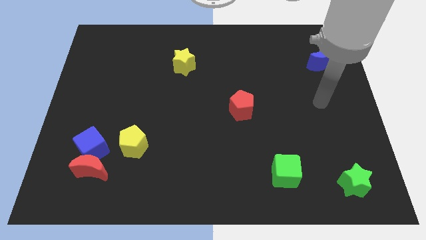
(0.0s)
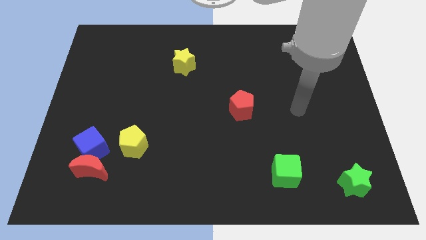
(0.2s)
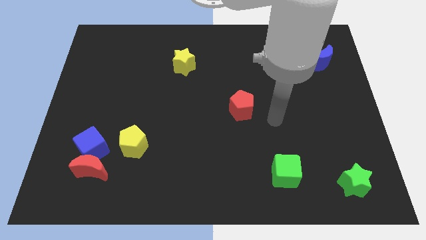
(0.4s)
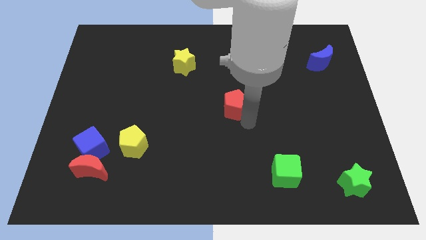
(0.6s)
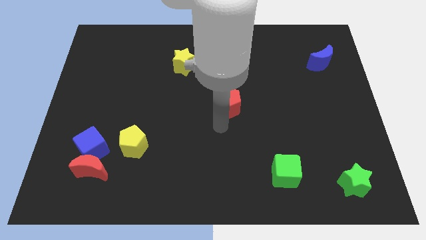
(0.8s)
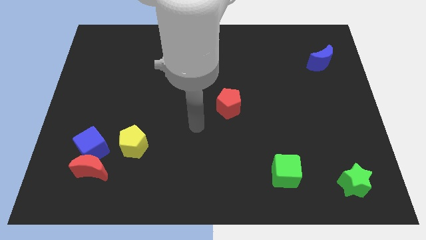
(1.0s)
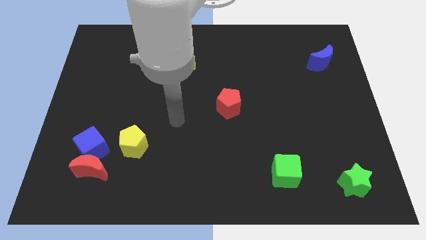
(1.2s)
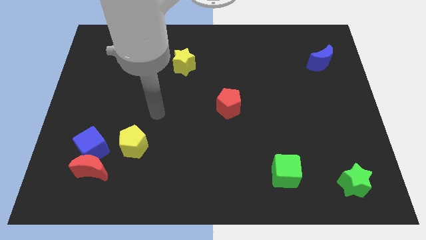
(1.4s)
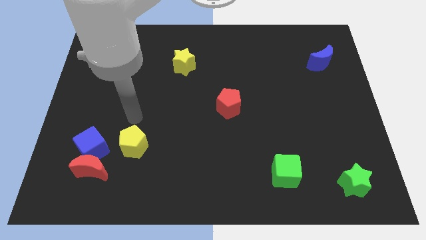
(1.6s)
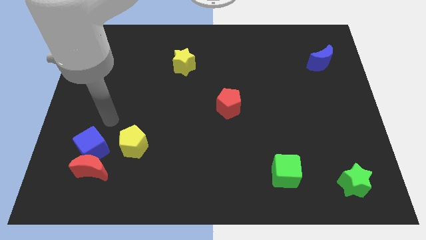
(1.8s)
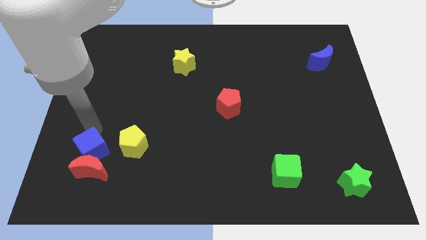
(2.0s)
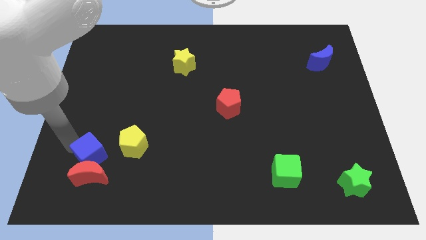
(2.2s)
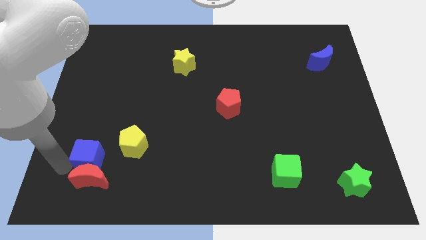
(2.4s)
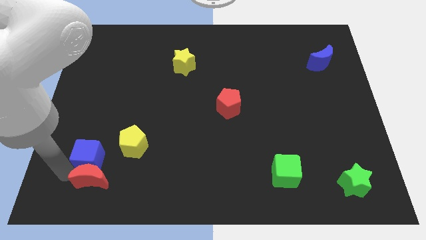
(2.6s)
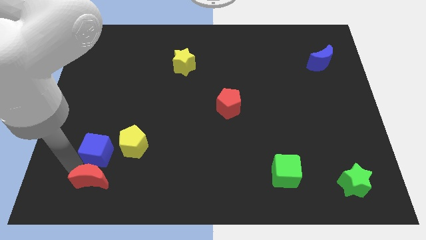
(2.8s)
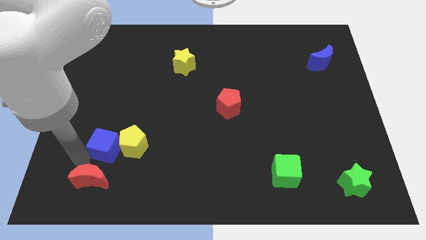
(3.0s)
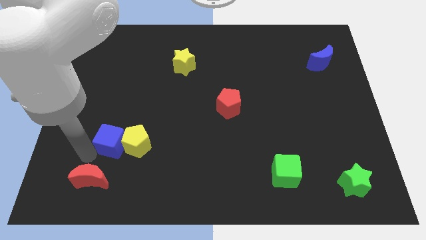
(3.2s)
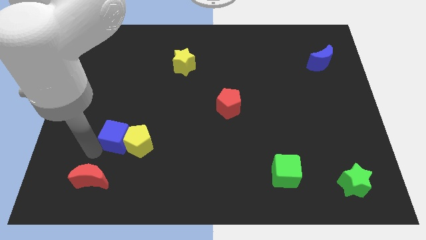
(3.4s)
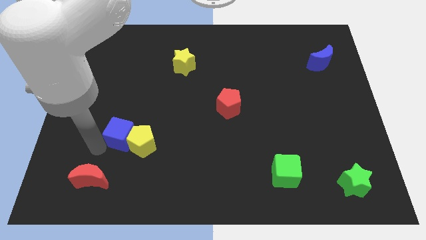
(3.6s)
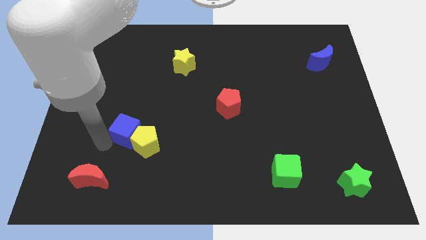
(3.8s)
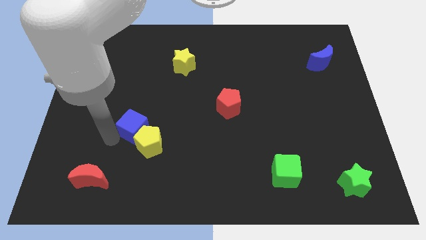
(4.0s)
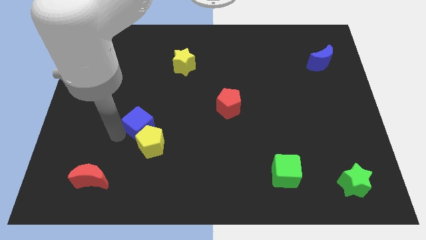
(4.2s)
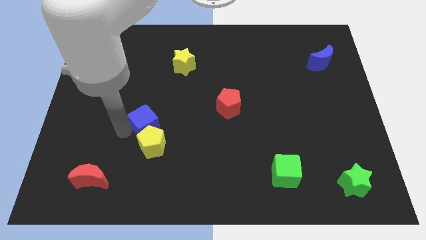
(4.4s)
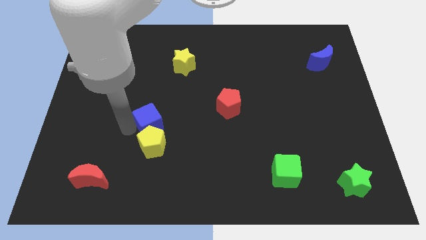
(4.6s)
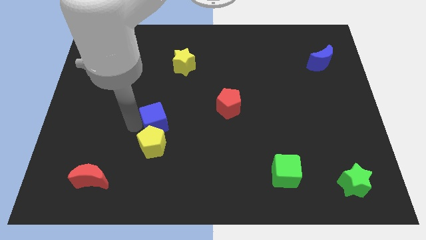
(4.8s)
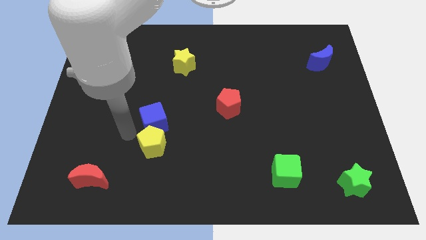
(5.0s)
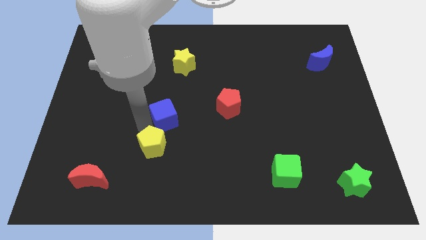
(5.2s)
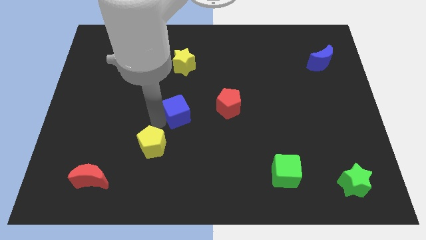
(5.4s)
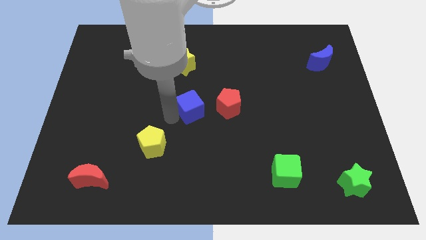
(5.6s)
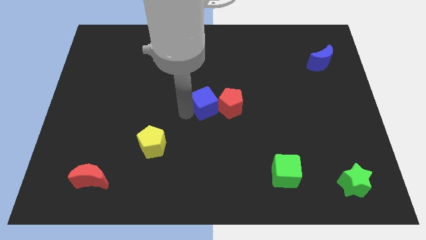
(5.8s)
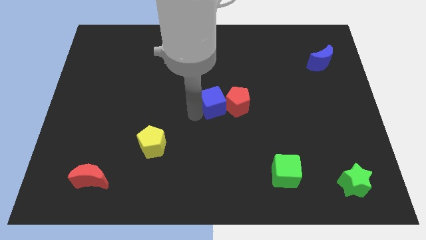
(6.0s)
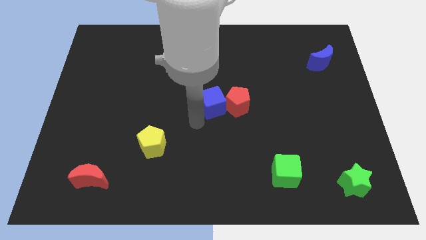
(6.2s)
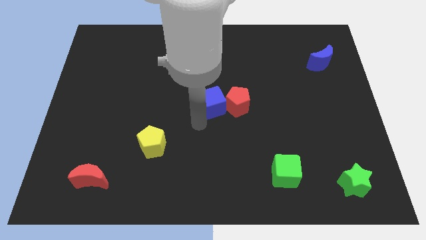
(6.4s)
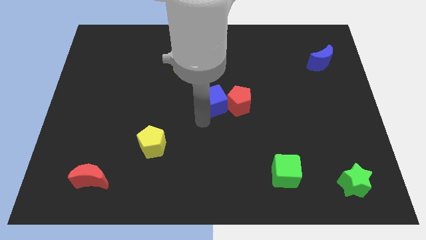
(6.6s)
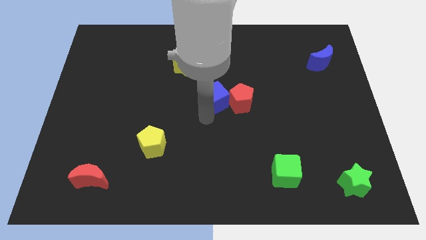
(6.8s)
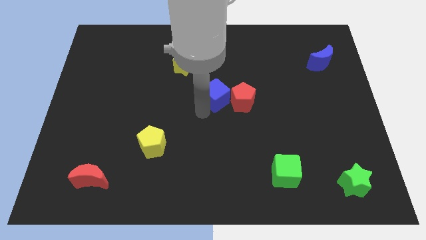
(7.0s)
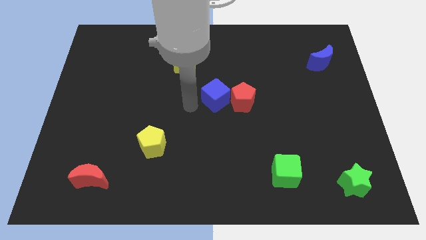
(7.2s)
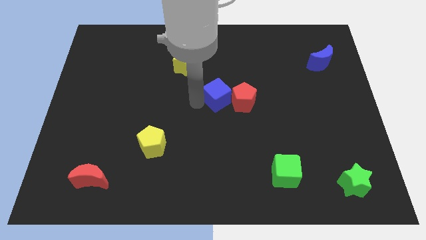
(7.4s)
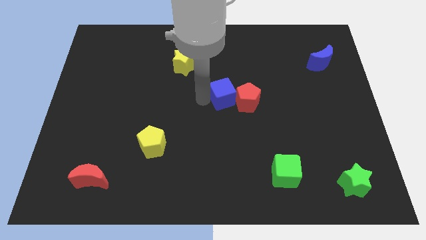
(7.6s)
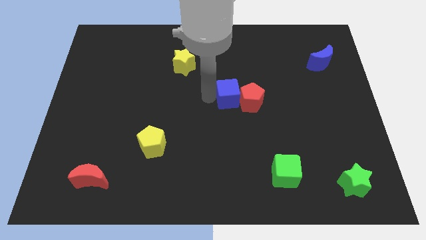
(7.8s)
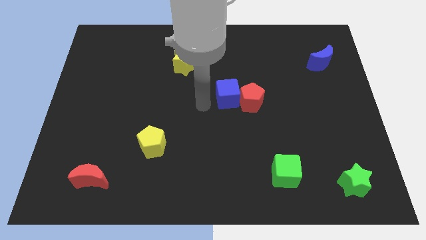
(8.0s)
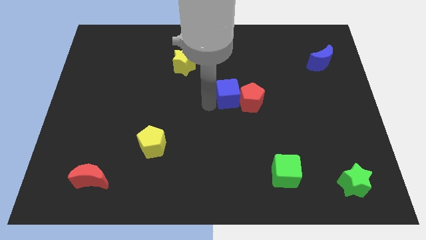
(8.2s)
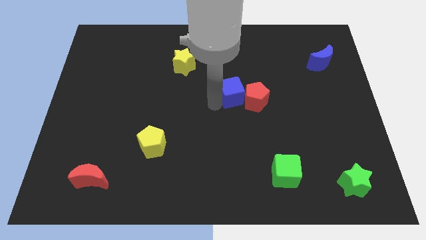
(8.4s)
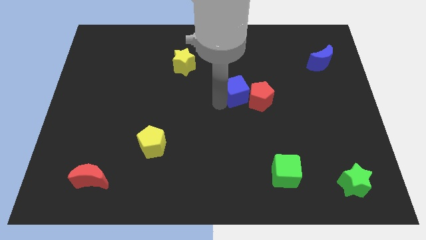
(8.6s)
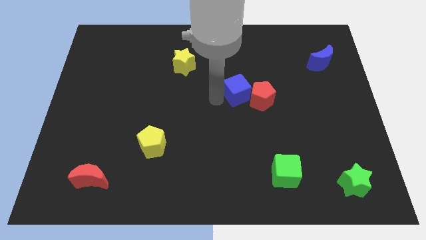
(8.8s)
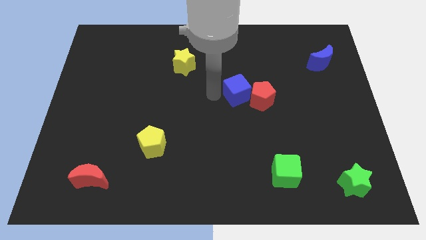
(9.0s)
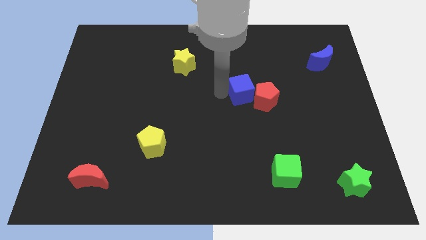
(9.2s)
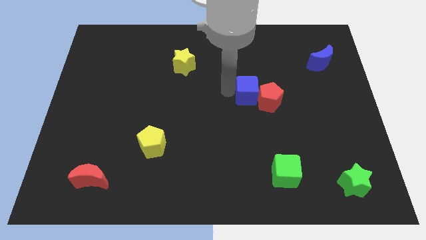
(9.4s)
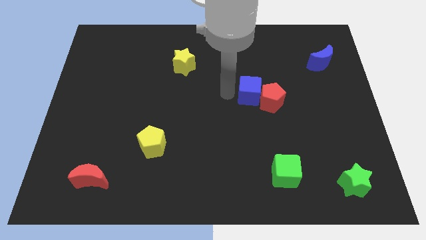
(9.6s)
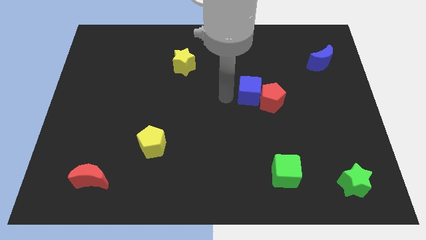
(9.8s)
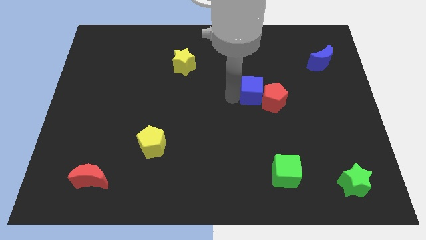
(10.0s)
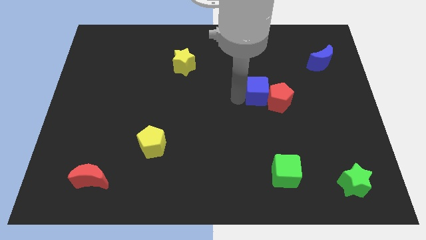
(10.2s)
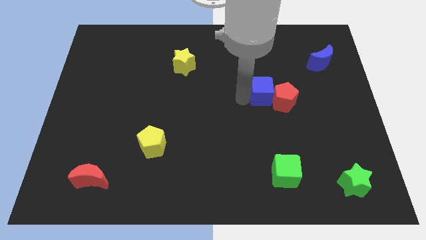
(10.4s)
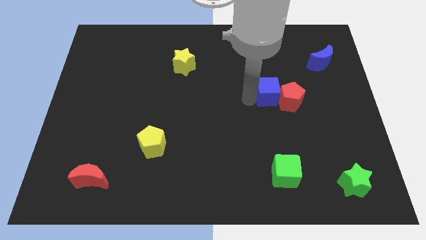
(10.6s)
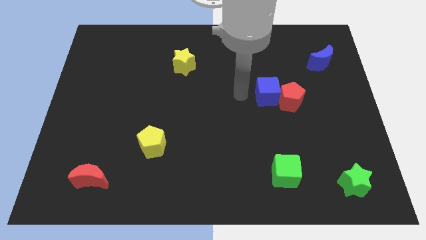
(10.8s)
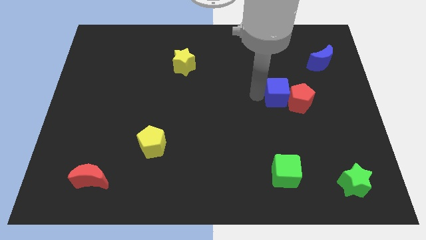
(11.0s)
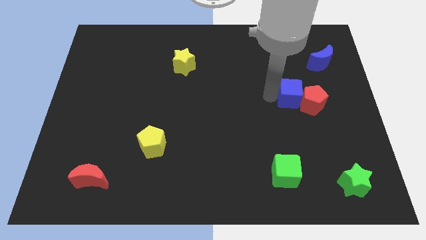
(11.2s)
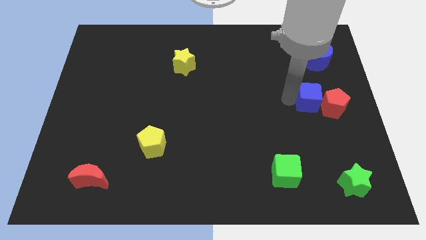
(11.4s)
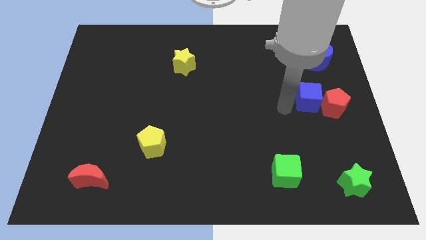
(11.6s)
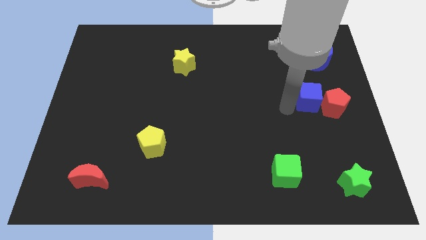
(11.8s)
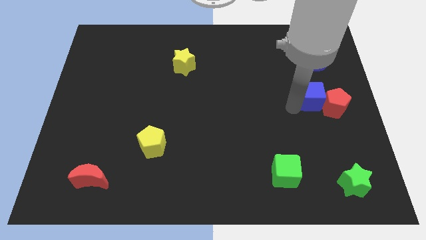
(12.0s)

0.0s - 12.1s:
slide the blue cube to the bottom of the blue moon

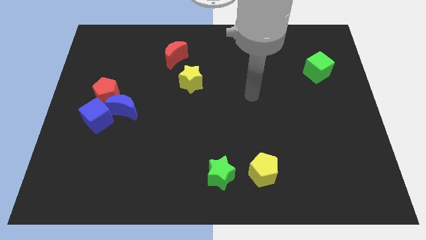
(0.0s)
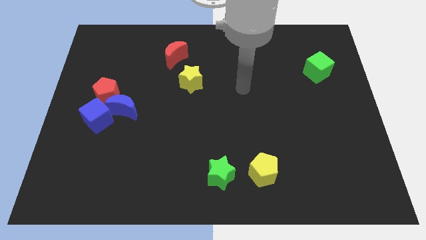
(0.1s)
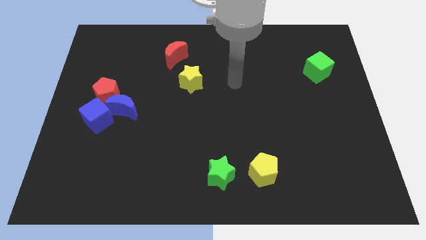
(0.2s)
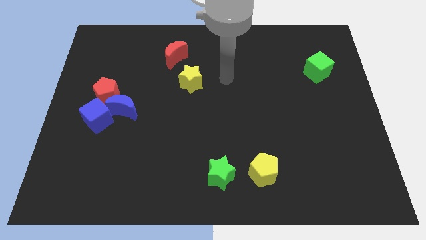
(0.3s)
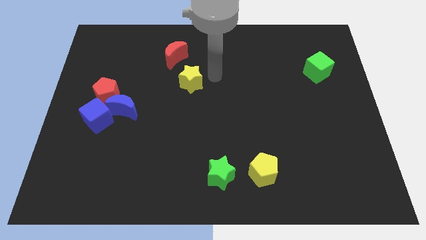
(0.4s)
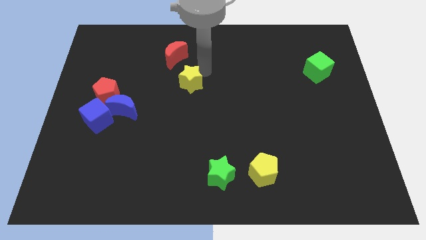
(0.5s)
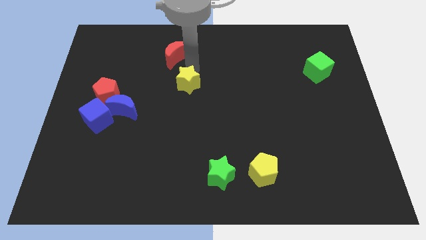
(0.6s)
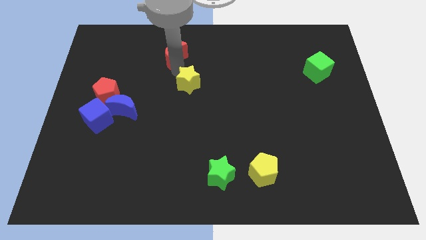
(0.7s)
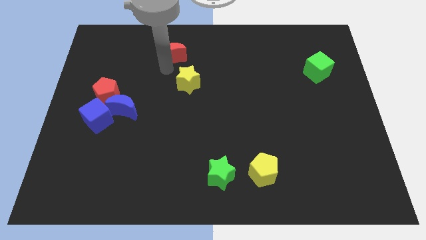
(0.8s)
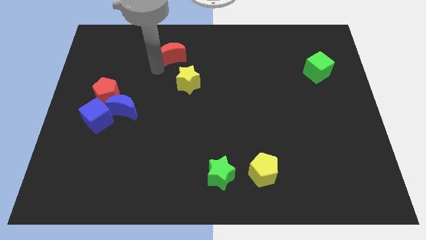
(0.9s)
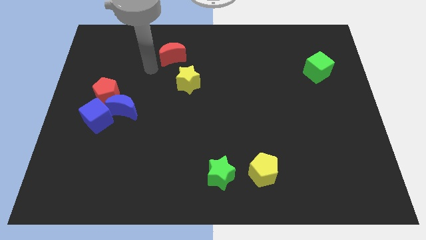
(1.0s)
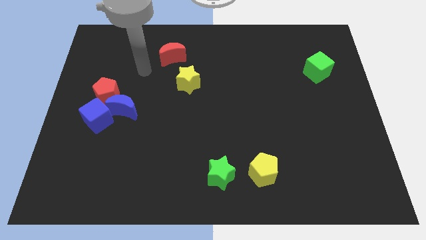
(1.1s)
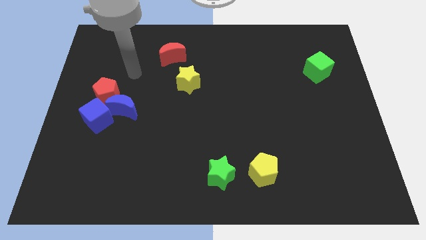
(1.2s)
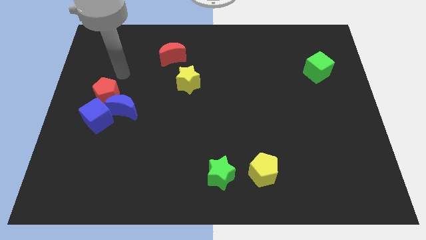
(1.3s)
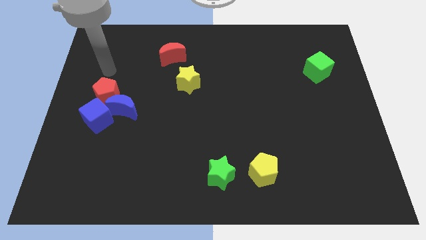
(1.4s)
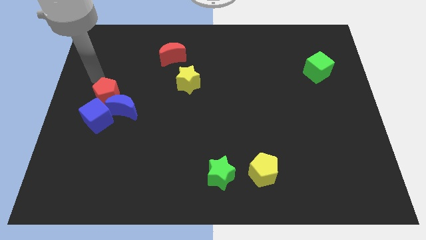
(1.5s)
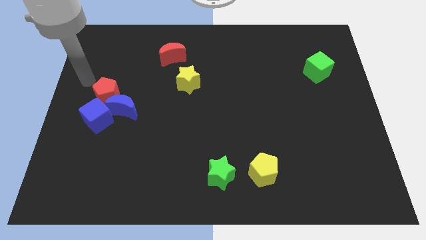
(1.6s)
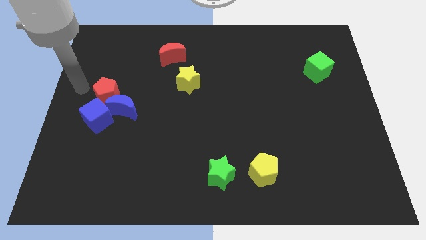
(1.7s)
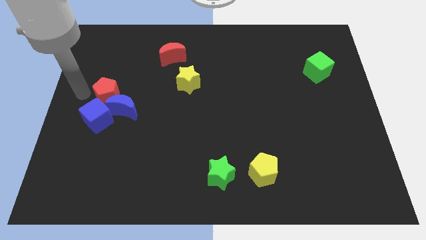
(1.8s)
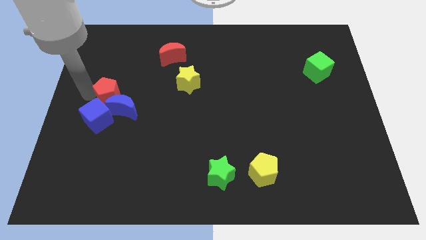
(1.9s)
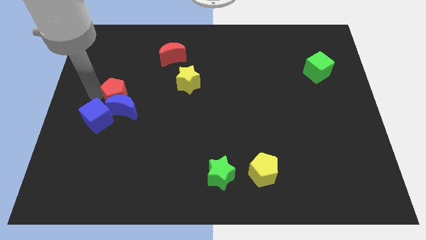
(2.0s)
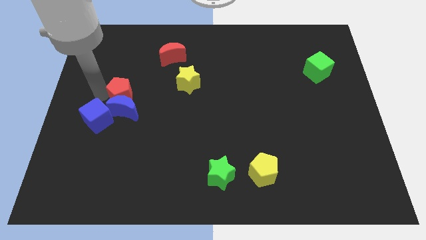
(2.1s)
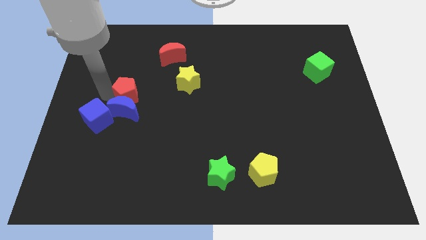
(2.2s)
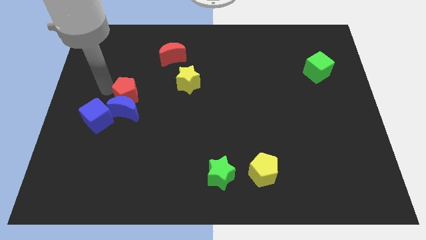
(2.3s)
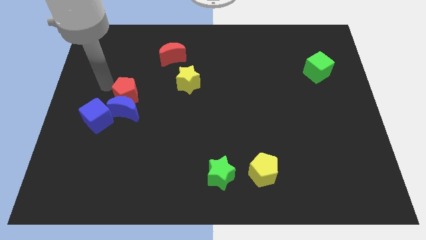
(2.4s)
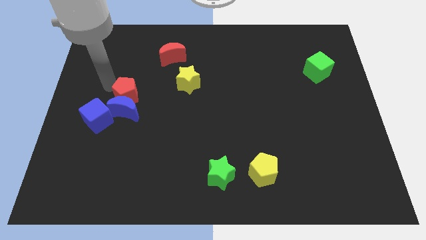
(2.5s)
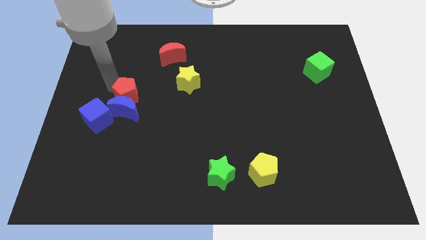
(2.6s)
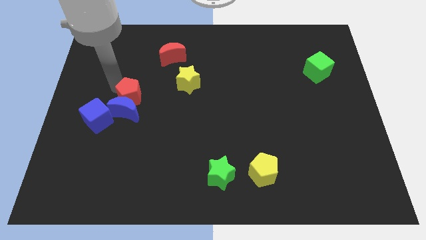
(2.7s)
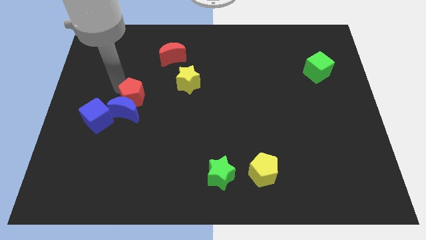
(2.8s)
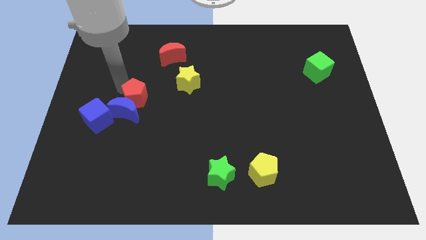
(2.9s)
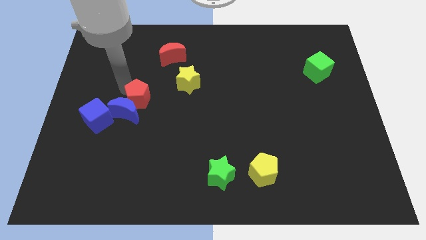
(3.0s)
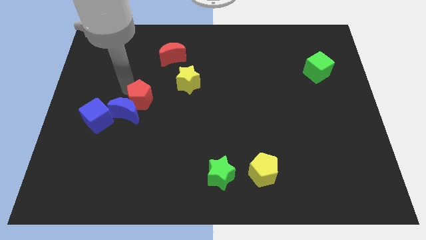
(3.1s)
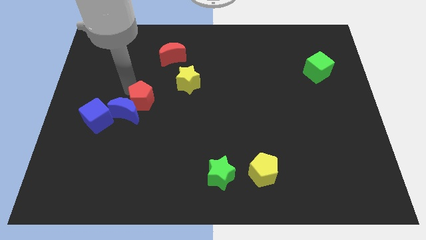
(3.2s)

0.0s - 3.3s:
push the red pentagon to the bottom left of the yellow star
